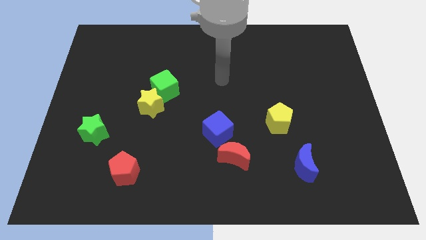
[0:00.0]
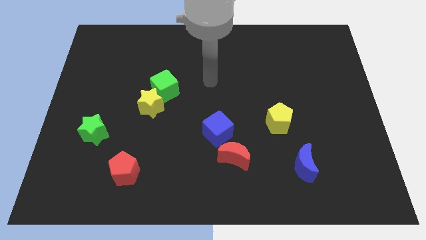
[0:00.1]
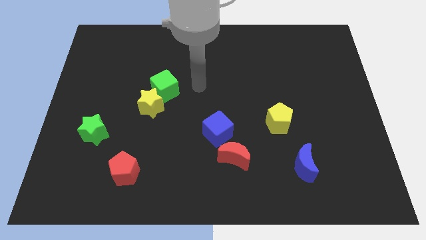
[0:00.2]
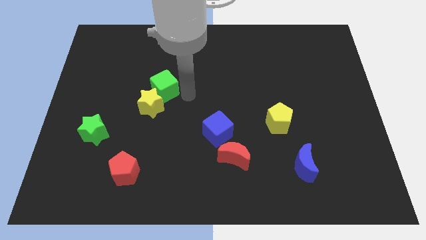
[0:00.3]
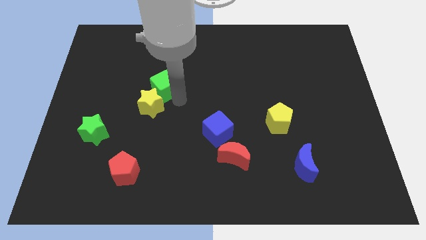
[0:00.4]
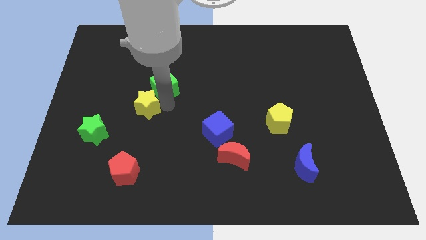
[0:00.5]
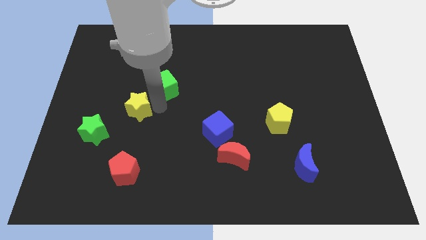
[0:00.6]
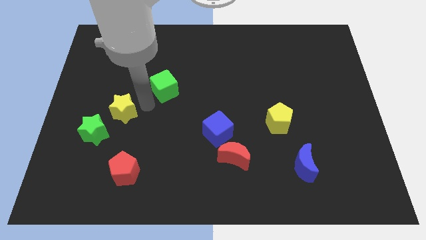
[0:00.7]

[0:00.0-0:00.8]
separate the green cube from the yellow star

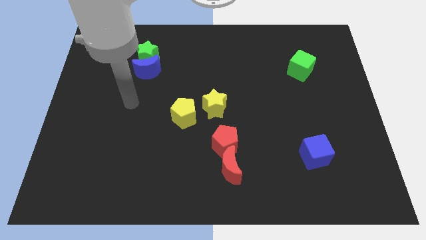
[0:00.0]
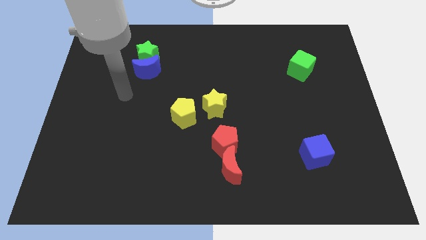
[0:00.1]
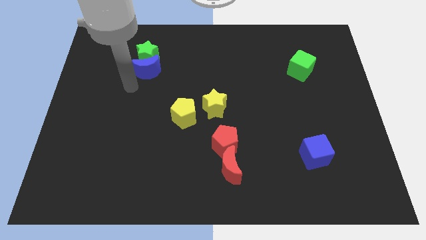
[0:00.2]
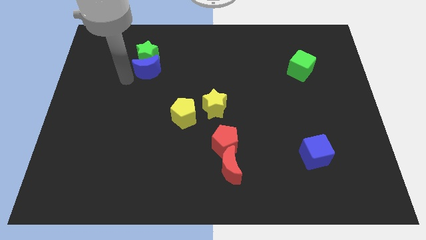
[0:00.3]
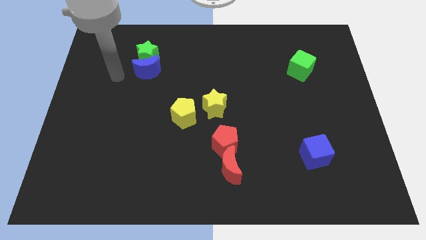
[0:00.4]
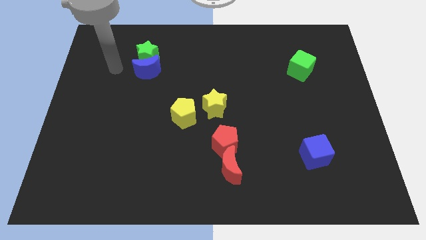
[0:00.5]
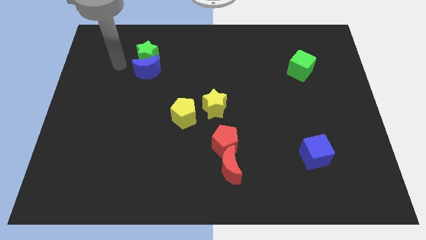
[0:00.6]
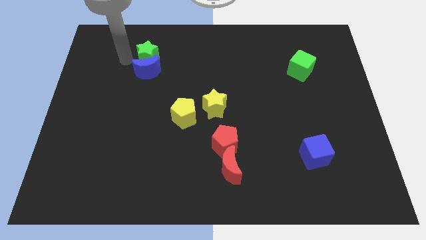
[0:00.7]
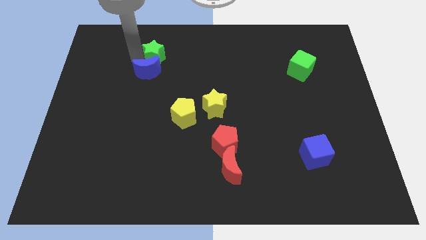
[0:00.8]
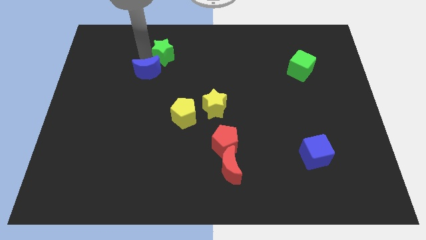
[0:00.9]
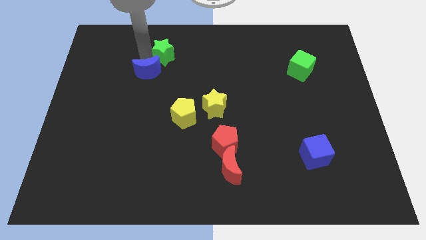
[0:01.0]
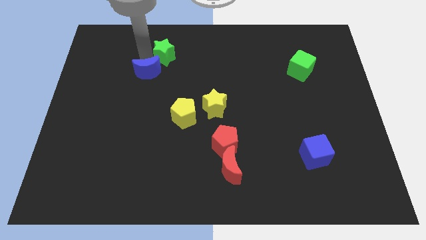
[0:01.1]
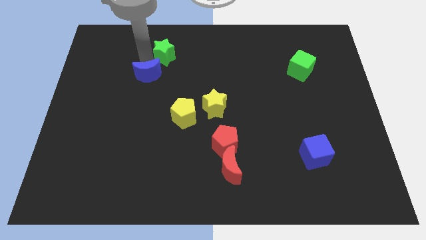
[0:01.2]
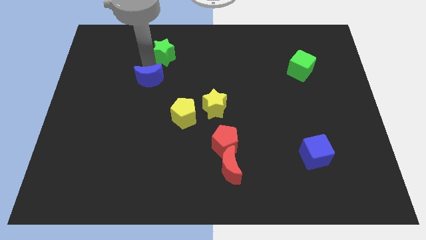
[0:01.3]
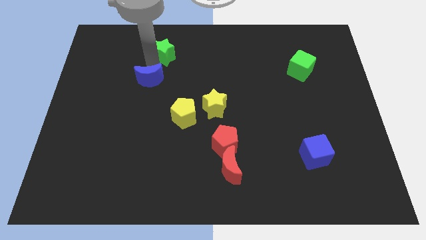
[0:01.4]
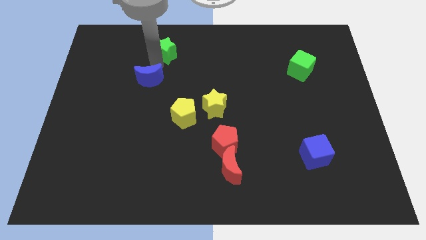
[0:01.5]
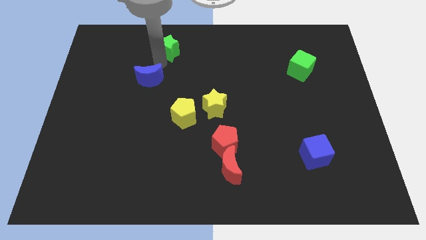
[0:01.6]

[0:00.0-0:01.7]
separate the blue moon from the green star

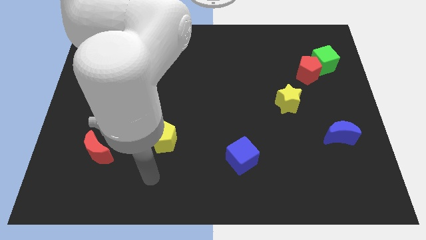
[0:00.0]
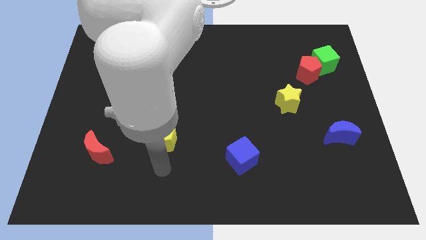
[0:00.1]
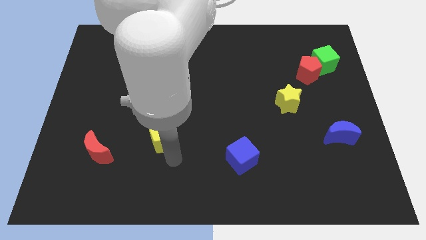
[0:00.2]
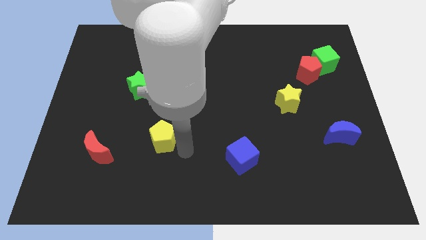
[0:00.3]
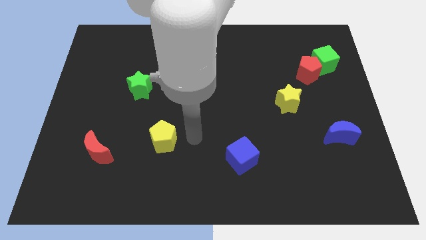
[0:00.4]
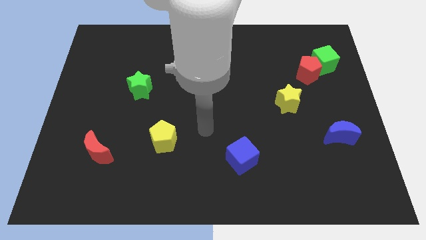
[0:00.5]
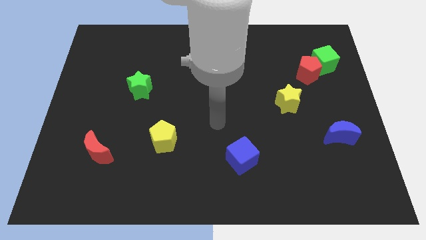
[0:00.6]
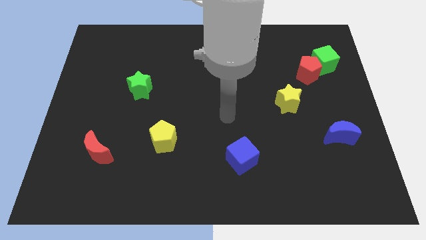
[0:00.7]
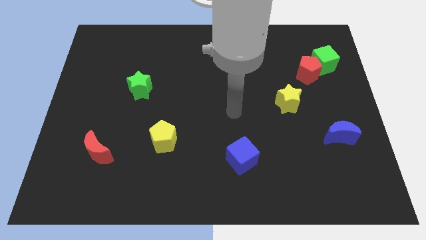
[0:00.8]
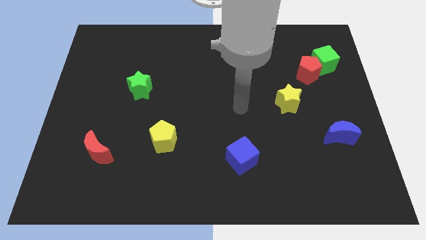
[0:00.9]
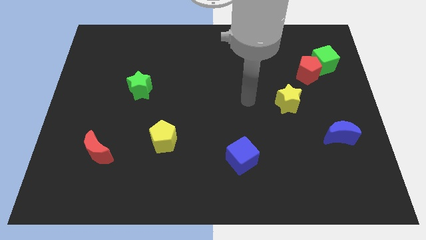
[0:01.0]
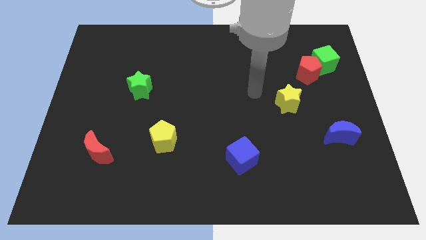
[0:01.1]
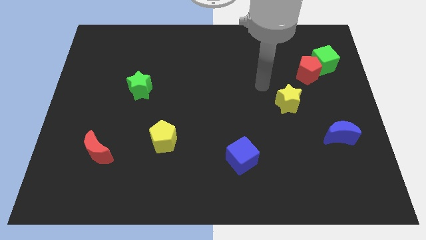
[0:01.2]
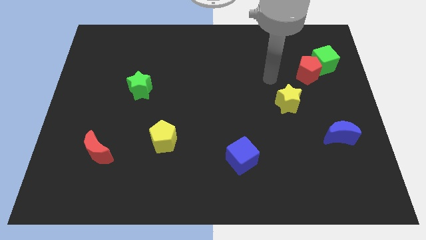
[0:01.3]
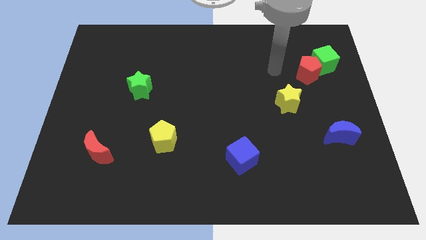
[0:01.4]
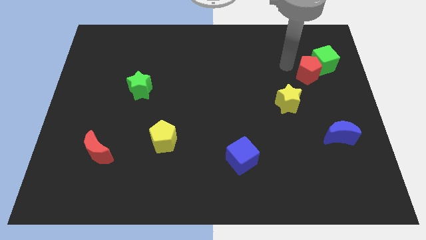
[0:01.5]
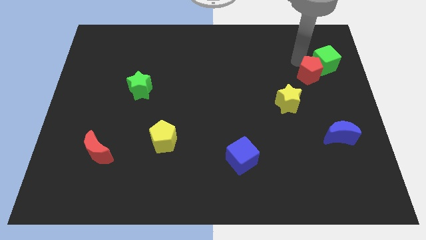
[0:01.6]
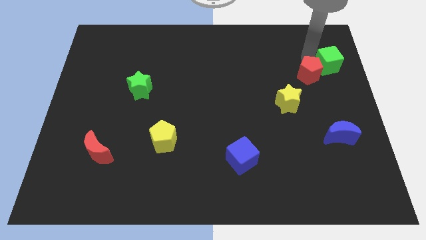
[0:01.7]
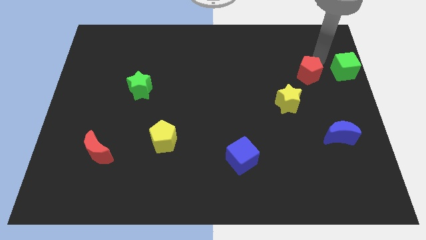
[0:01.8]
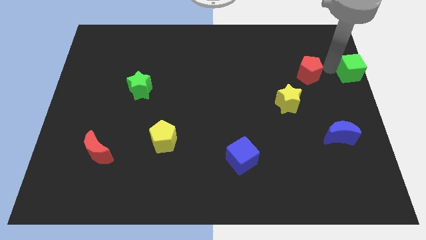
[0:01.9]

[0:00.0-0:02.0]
move the red pentagon away from the green cube

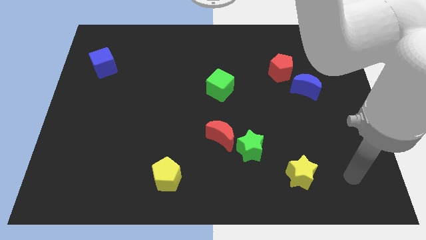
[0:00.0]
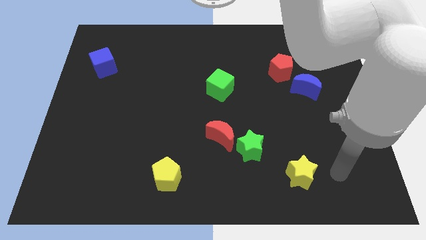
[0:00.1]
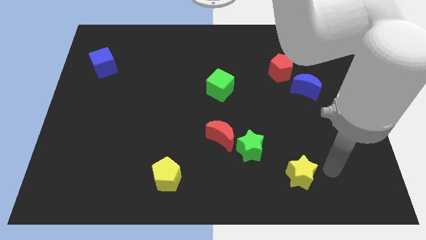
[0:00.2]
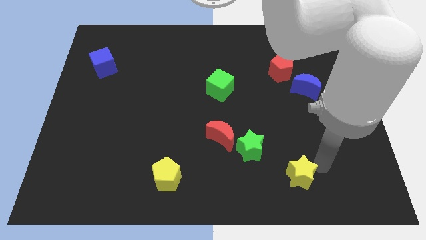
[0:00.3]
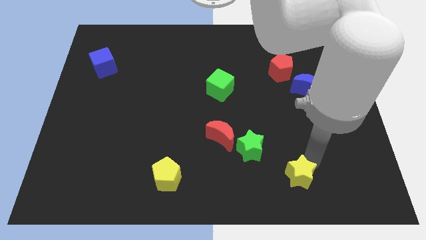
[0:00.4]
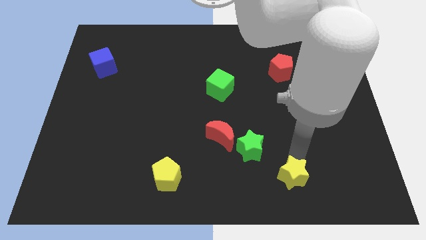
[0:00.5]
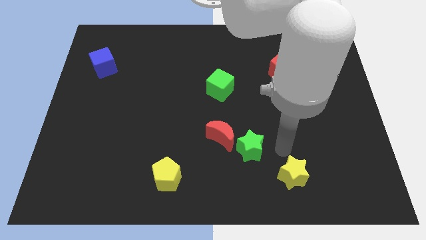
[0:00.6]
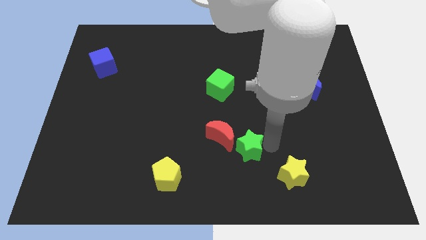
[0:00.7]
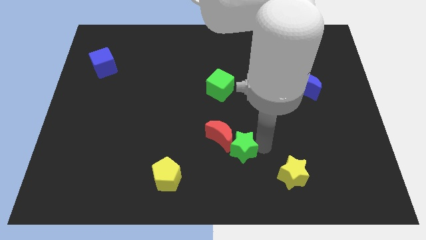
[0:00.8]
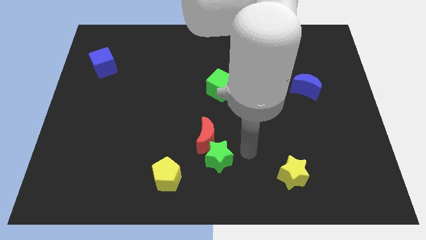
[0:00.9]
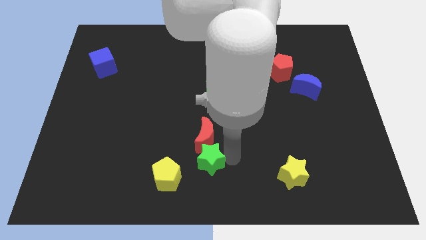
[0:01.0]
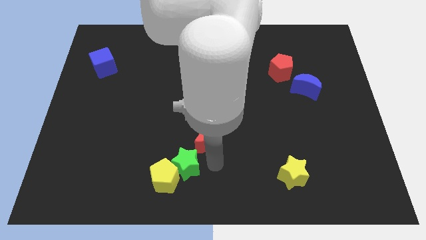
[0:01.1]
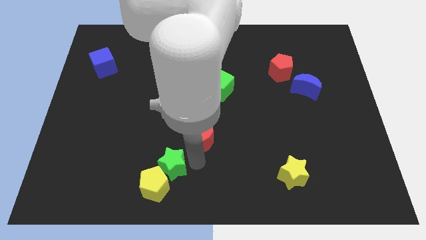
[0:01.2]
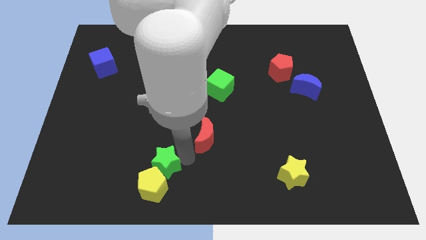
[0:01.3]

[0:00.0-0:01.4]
pull the red moon apart from the green star

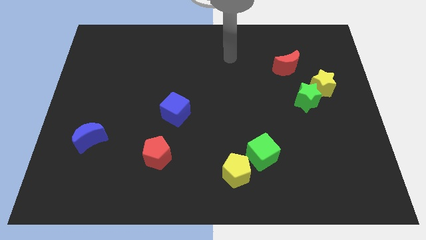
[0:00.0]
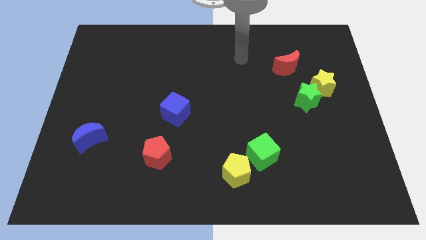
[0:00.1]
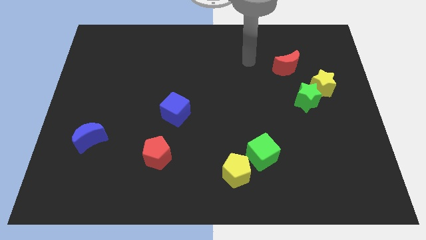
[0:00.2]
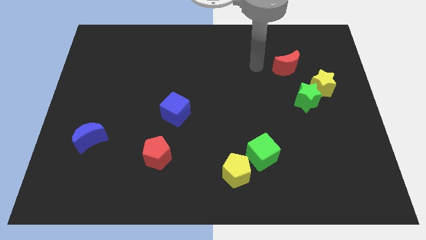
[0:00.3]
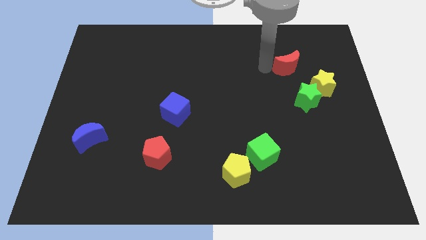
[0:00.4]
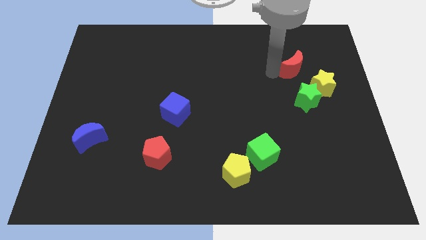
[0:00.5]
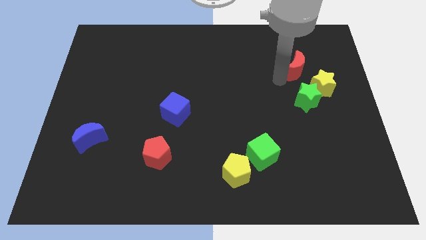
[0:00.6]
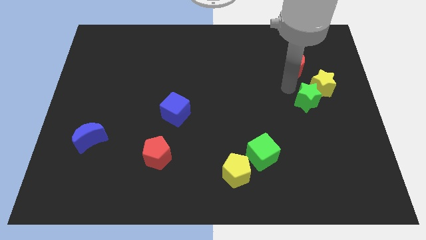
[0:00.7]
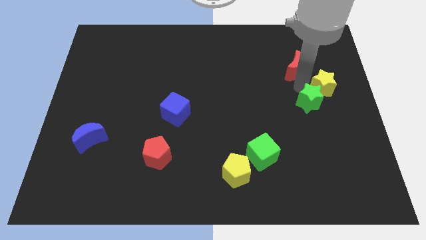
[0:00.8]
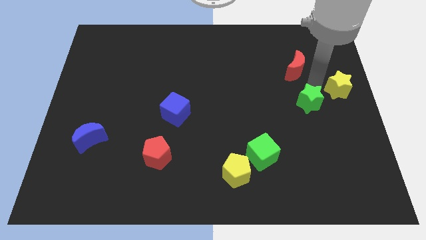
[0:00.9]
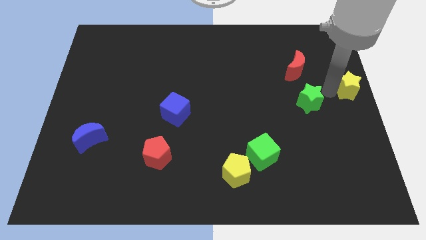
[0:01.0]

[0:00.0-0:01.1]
pull the green star apart from the yellow star

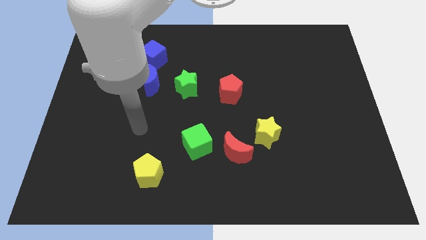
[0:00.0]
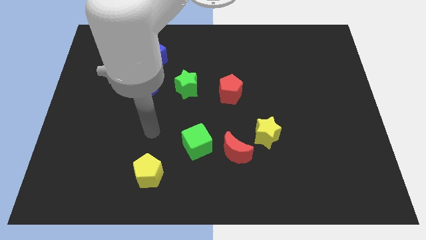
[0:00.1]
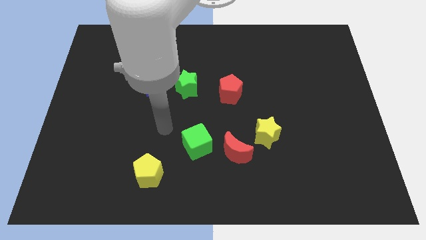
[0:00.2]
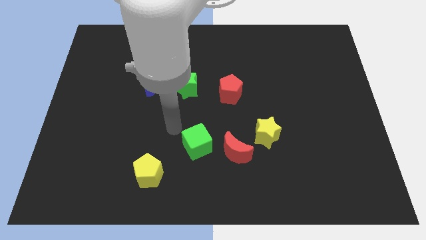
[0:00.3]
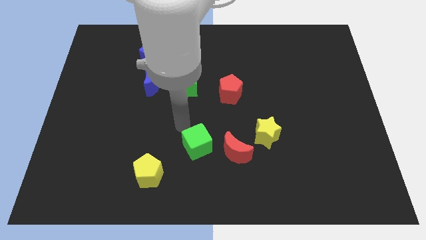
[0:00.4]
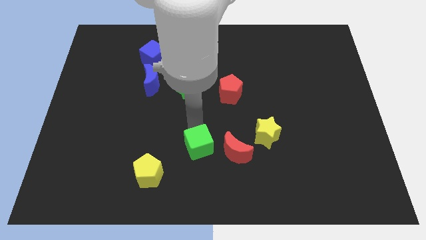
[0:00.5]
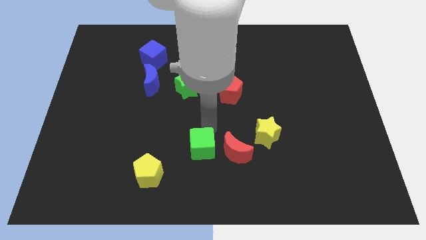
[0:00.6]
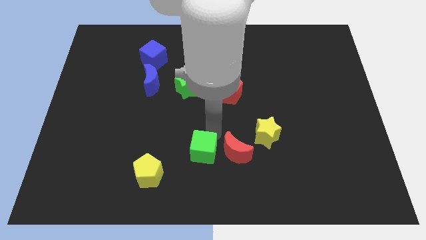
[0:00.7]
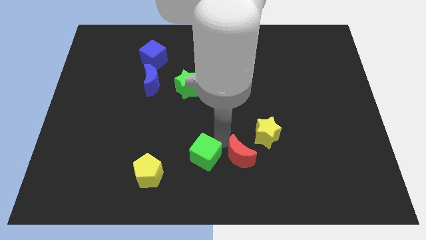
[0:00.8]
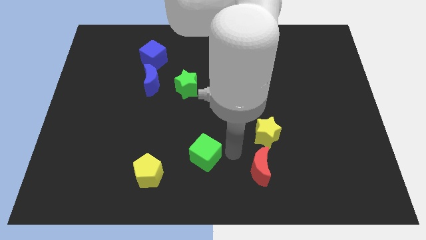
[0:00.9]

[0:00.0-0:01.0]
pull the green cube apart from the red moon

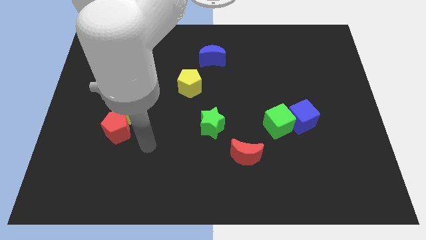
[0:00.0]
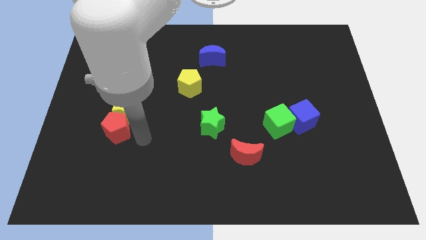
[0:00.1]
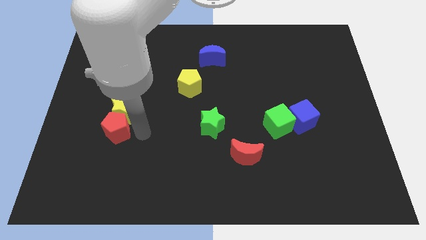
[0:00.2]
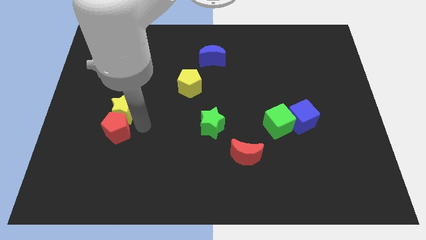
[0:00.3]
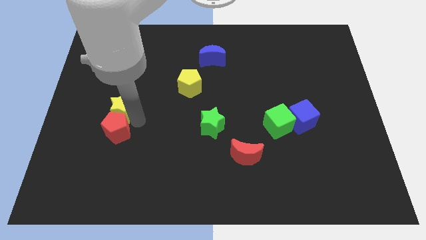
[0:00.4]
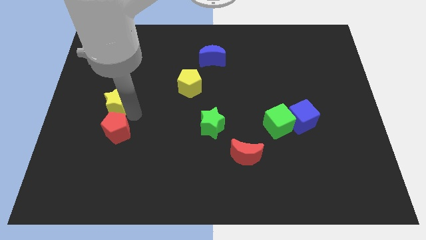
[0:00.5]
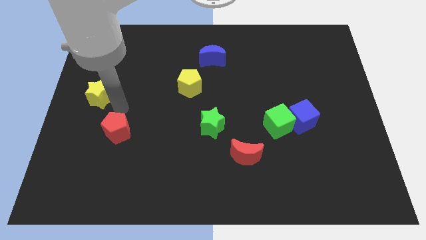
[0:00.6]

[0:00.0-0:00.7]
separate the red pentagon from the yellow star

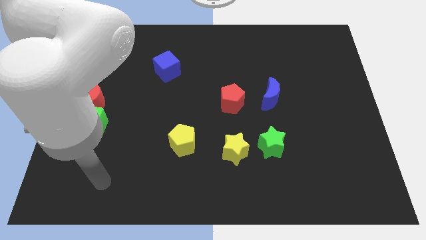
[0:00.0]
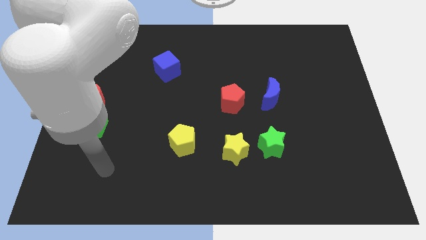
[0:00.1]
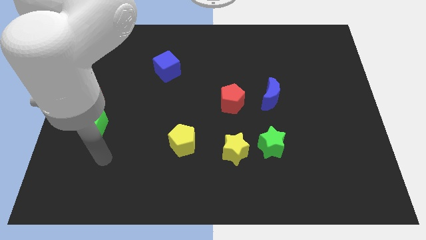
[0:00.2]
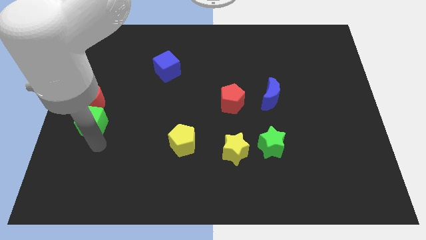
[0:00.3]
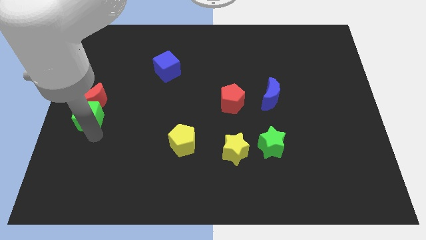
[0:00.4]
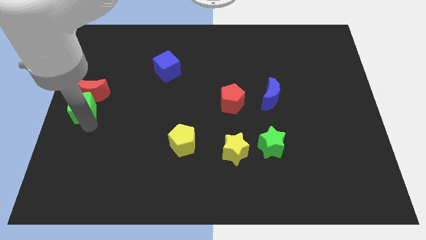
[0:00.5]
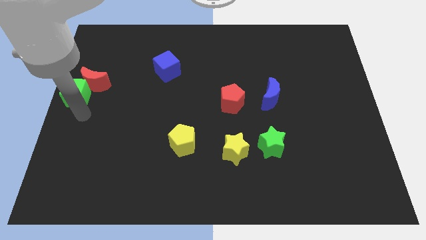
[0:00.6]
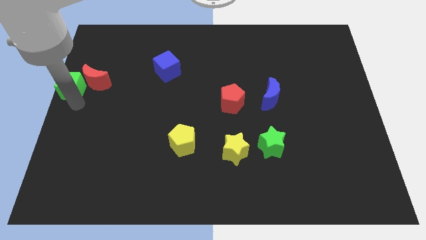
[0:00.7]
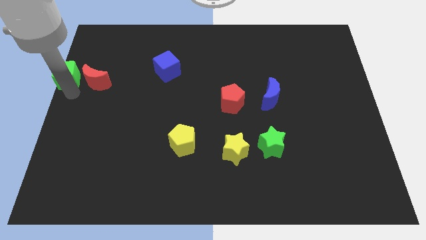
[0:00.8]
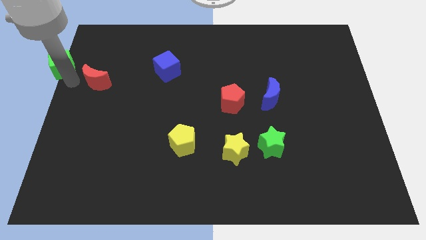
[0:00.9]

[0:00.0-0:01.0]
separate the red moon from the green cube
